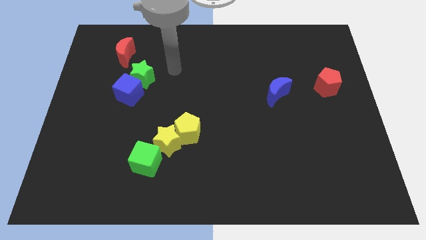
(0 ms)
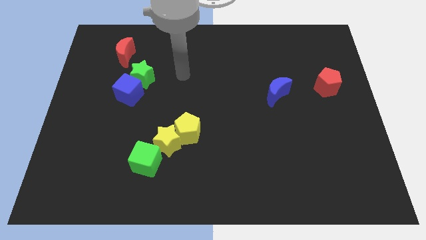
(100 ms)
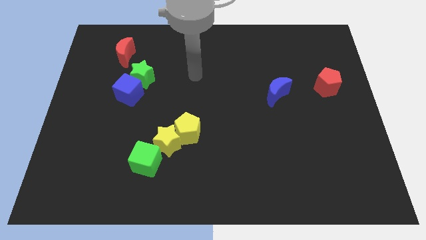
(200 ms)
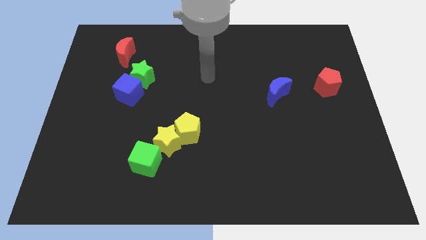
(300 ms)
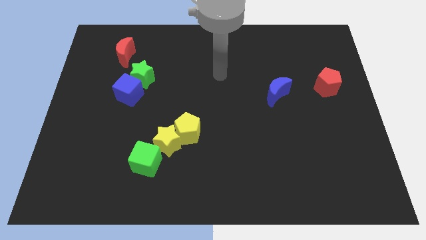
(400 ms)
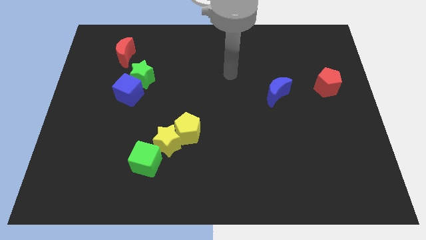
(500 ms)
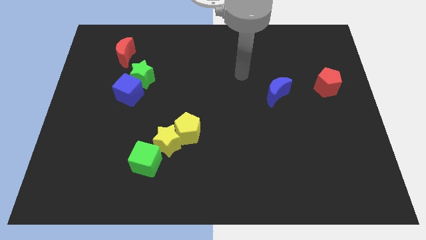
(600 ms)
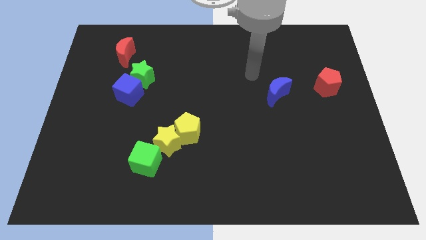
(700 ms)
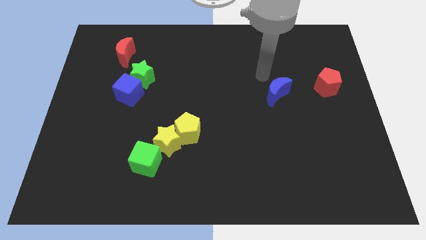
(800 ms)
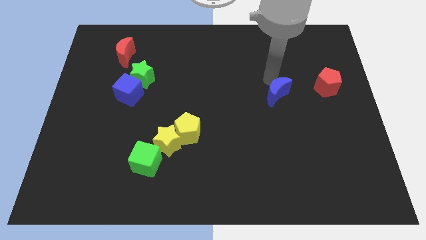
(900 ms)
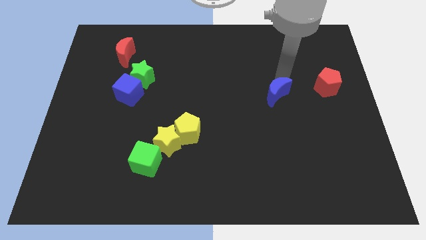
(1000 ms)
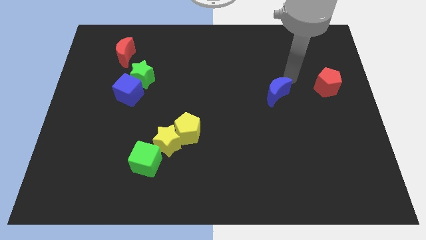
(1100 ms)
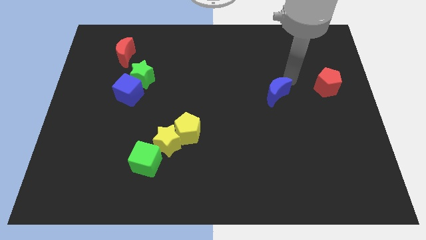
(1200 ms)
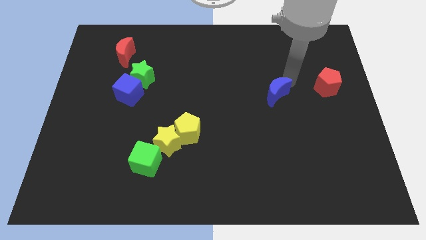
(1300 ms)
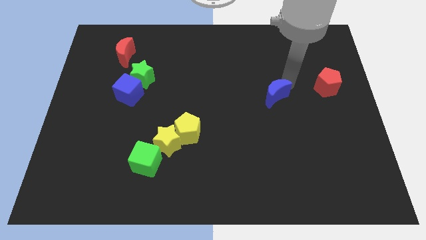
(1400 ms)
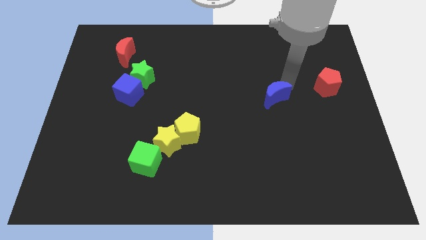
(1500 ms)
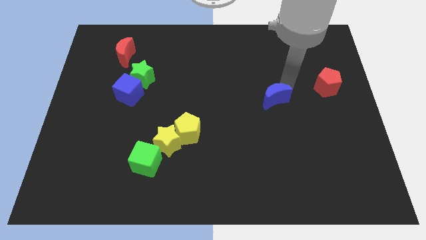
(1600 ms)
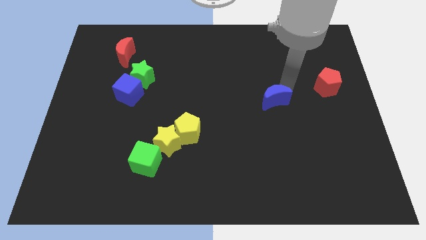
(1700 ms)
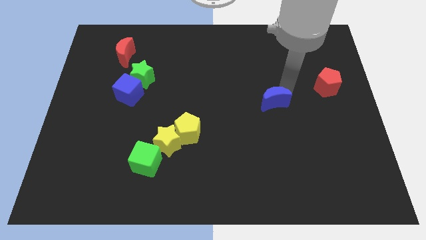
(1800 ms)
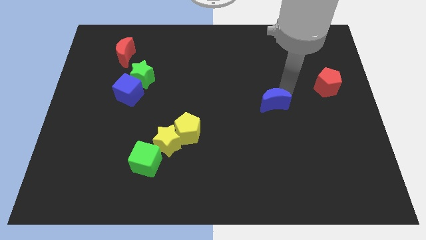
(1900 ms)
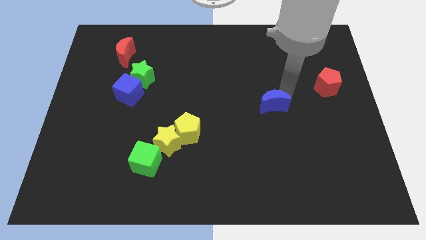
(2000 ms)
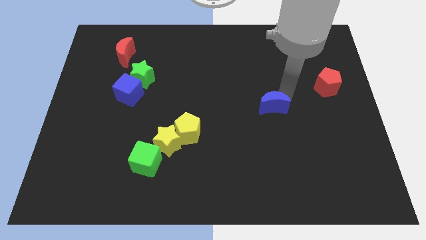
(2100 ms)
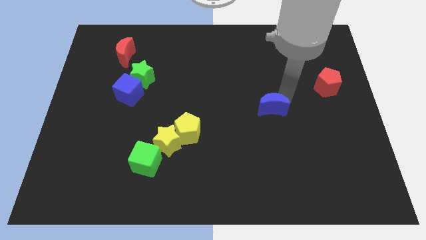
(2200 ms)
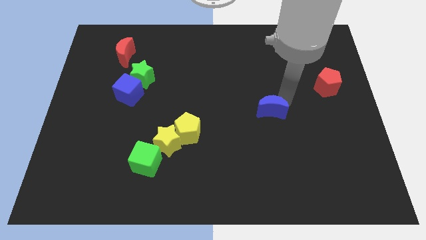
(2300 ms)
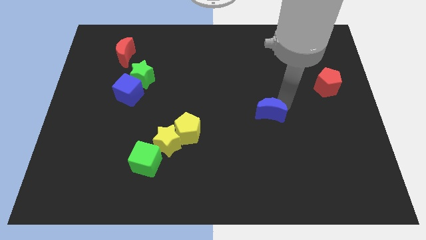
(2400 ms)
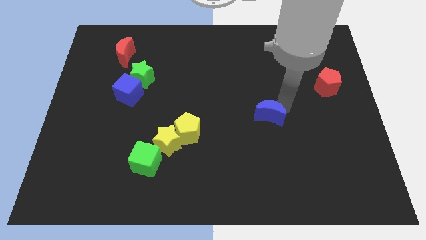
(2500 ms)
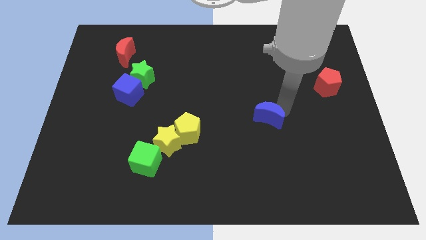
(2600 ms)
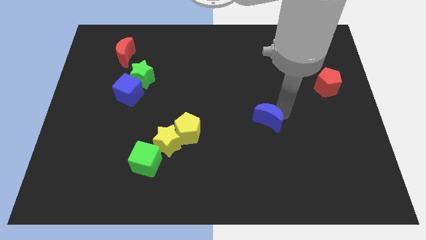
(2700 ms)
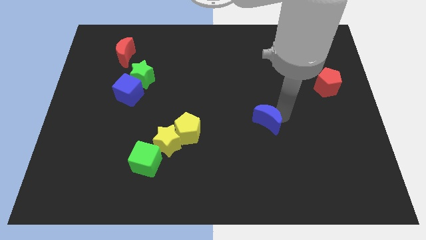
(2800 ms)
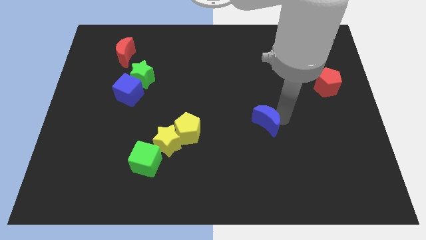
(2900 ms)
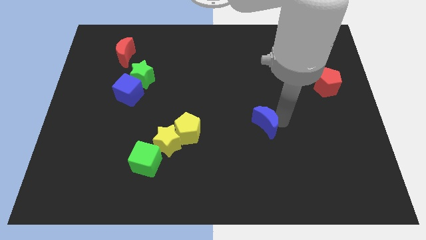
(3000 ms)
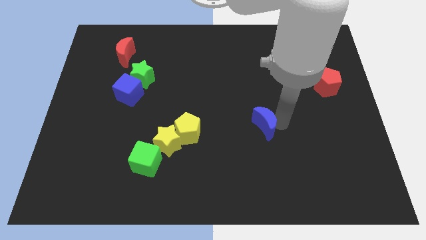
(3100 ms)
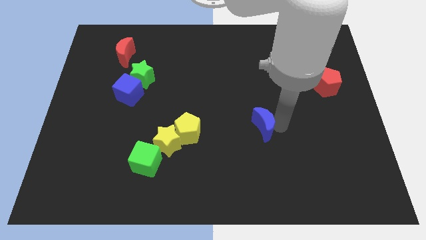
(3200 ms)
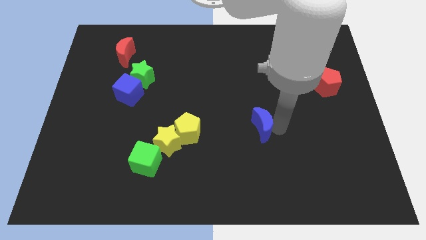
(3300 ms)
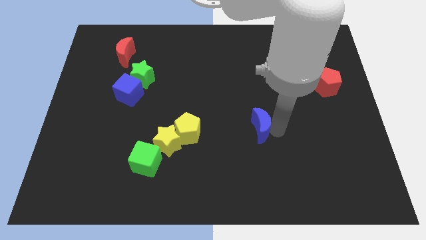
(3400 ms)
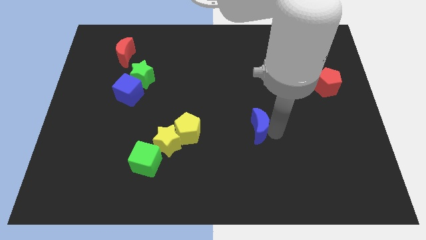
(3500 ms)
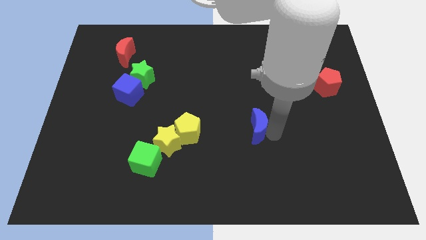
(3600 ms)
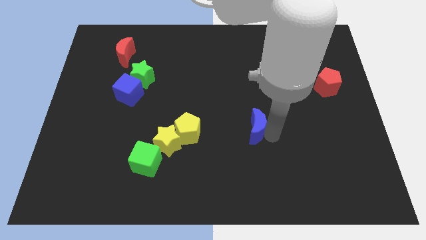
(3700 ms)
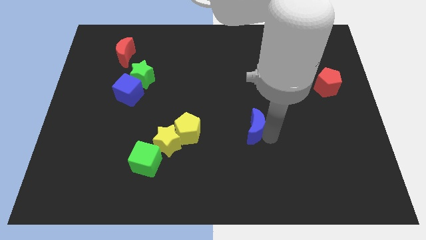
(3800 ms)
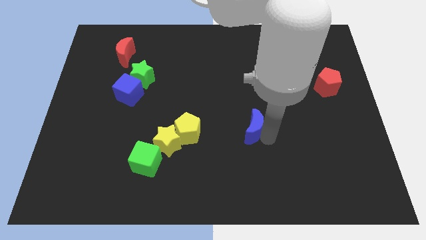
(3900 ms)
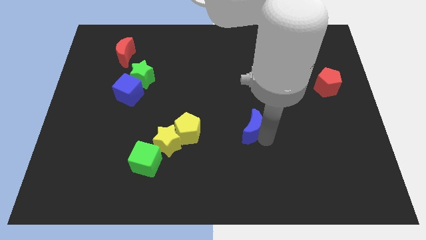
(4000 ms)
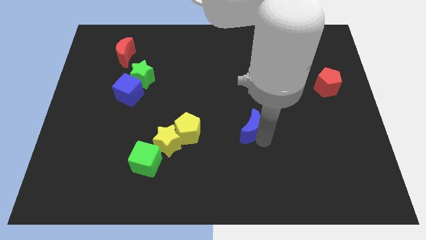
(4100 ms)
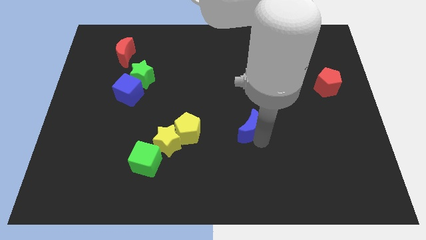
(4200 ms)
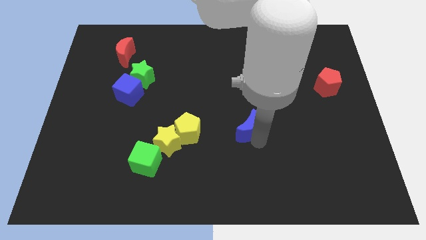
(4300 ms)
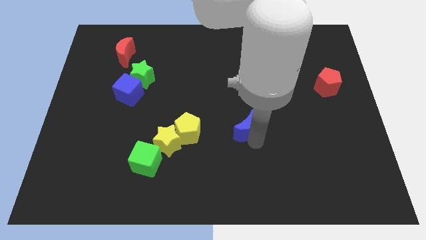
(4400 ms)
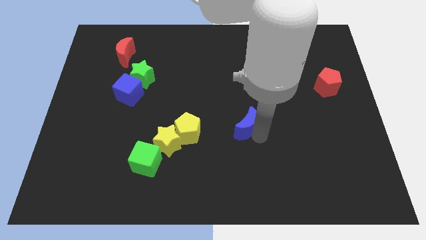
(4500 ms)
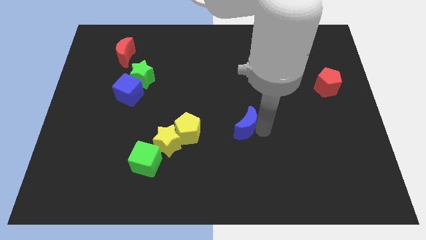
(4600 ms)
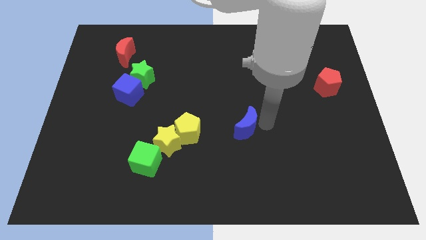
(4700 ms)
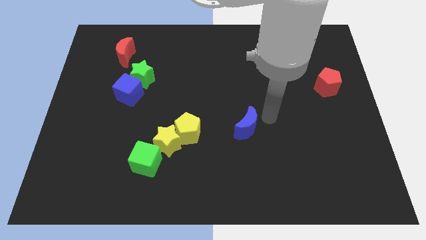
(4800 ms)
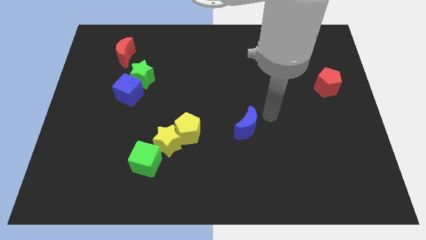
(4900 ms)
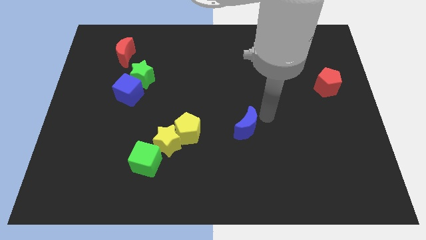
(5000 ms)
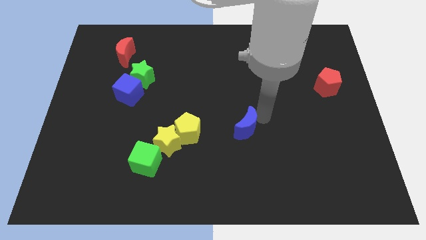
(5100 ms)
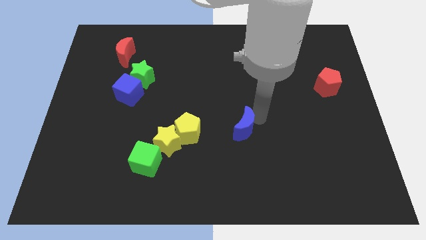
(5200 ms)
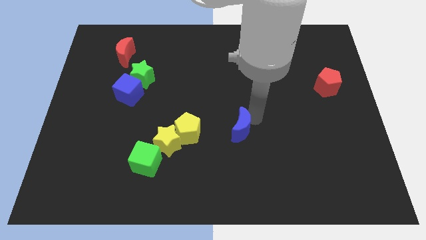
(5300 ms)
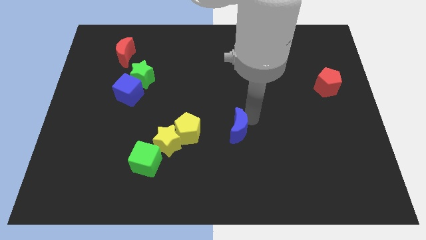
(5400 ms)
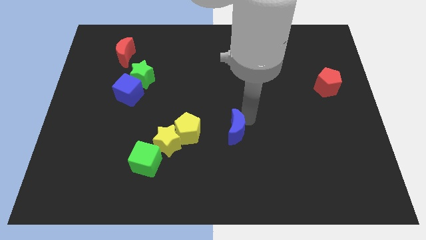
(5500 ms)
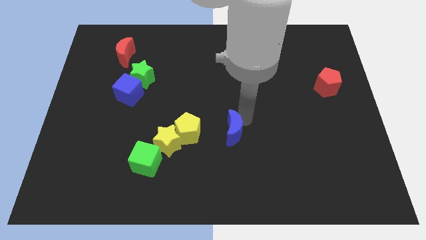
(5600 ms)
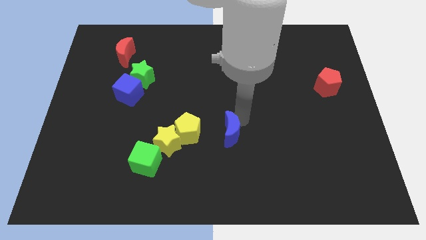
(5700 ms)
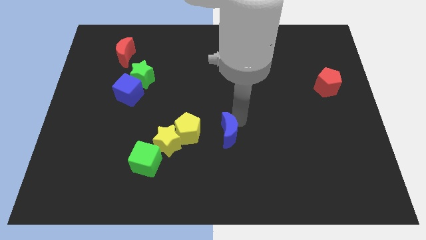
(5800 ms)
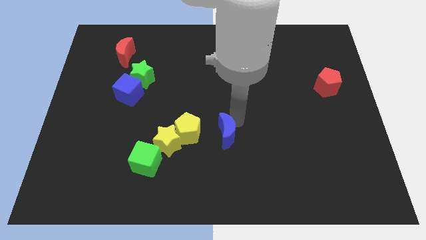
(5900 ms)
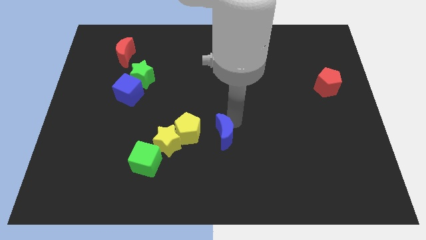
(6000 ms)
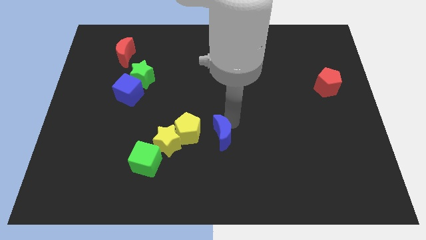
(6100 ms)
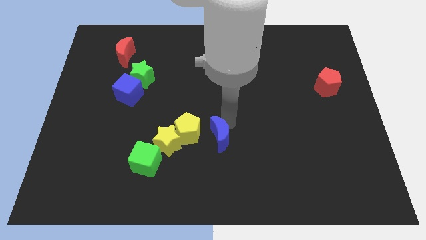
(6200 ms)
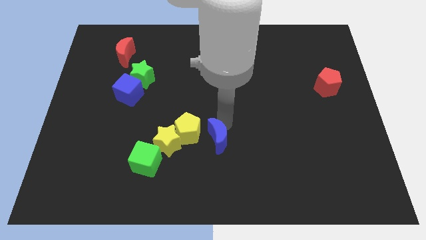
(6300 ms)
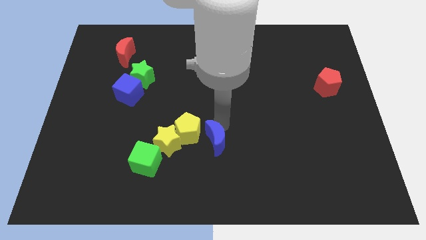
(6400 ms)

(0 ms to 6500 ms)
push the blue moon downwards and left

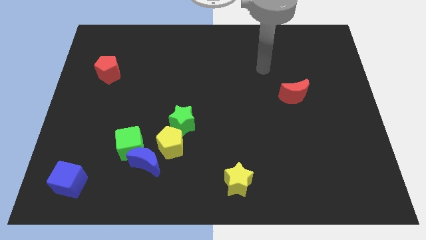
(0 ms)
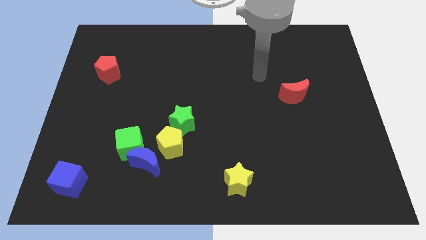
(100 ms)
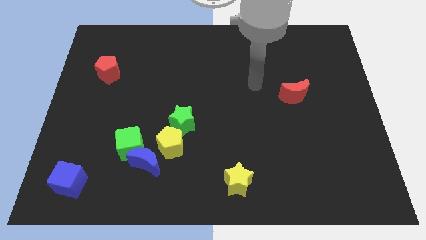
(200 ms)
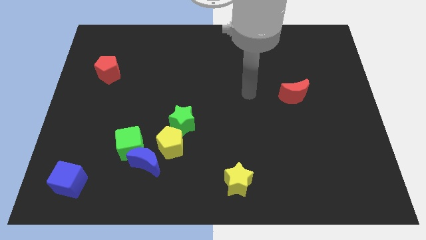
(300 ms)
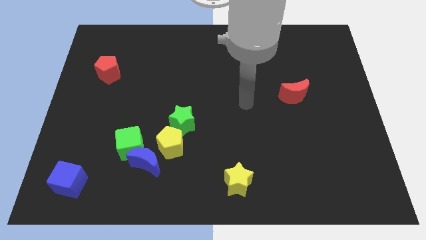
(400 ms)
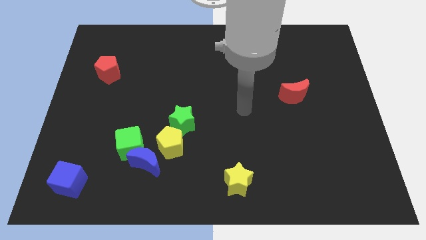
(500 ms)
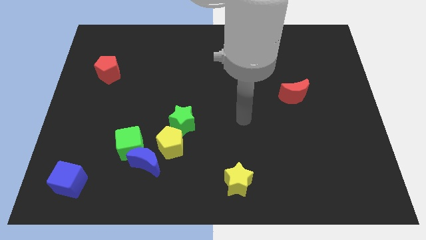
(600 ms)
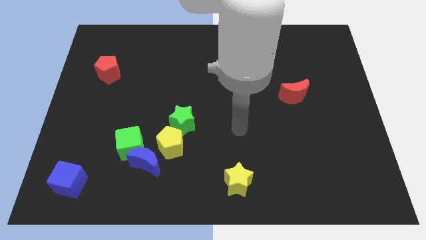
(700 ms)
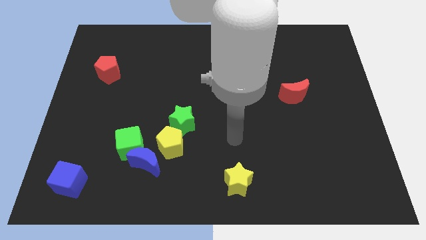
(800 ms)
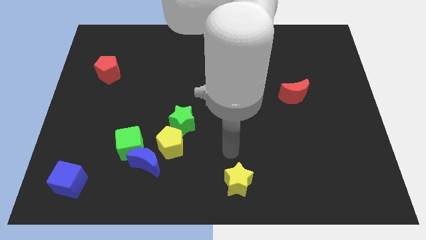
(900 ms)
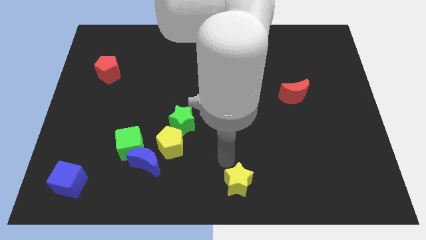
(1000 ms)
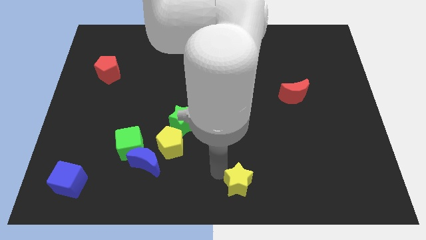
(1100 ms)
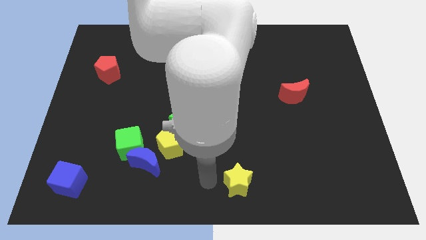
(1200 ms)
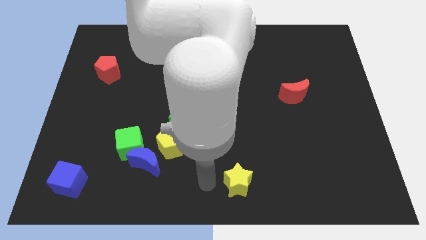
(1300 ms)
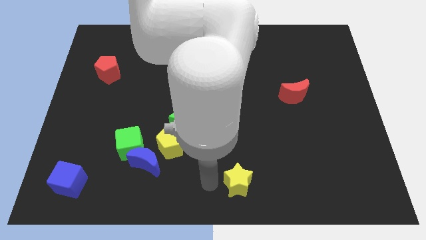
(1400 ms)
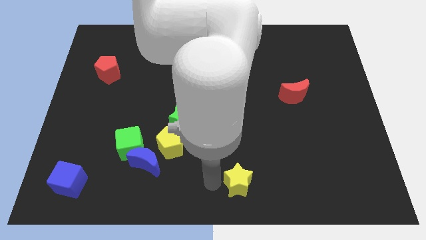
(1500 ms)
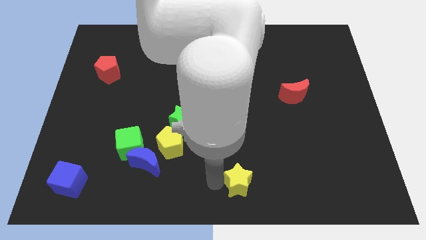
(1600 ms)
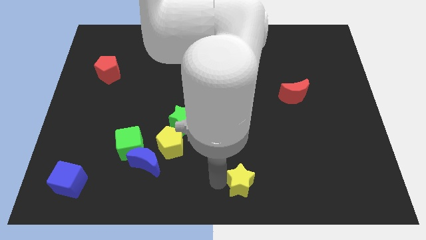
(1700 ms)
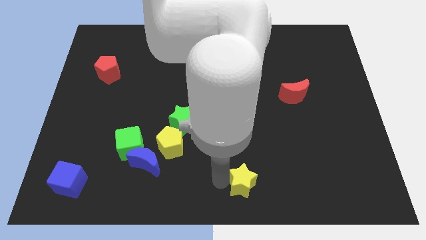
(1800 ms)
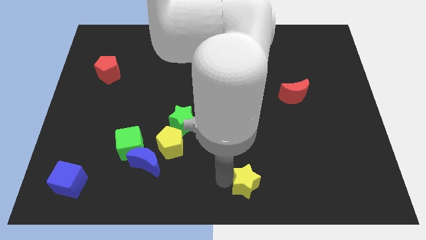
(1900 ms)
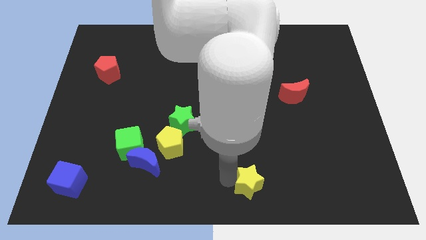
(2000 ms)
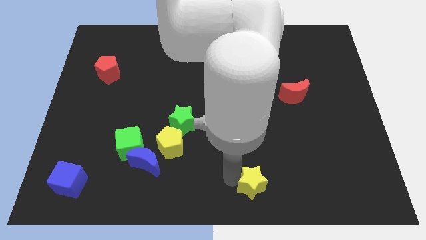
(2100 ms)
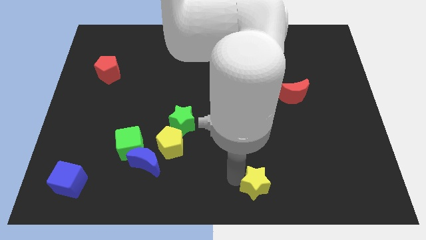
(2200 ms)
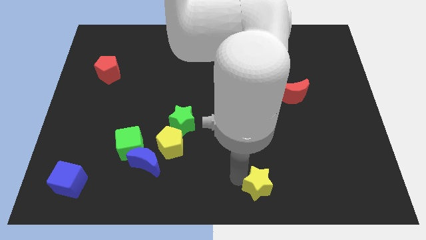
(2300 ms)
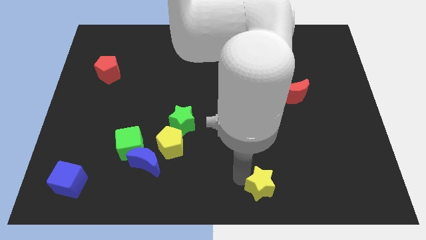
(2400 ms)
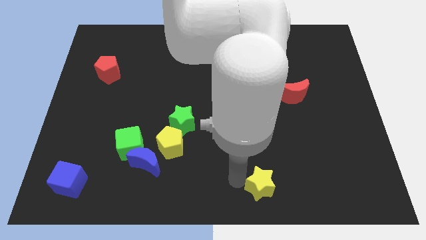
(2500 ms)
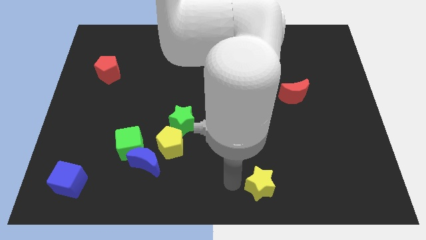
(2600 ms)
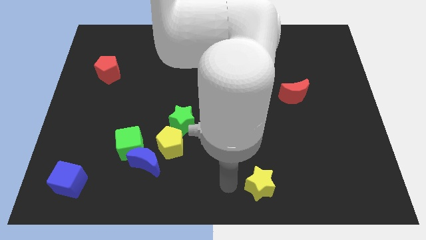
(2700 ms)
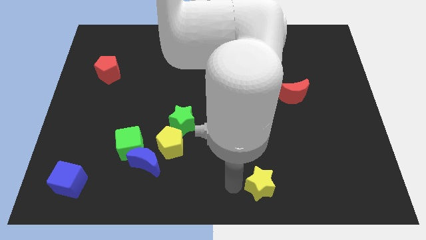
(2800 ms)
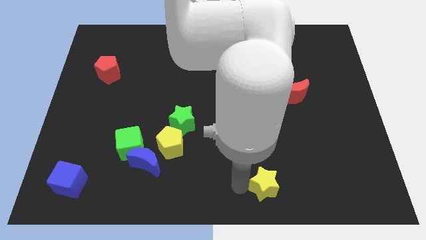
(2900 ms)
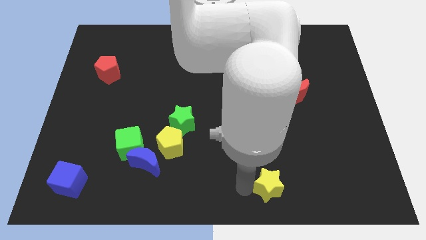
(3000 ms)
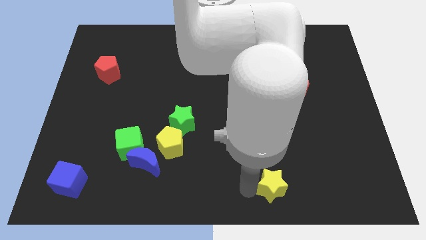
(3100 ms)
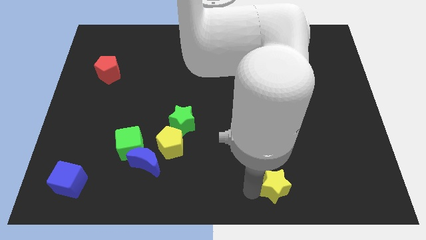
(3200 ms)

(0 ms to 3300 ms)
push the yellow star right slightly
